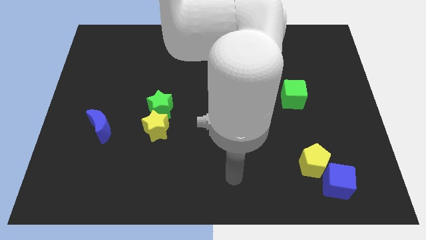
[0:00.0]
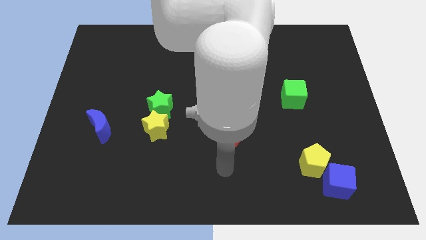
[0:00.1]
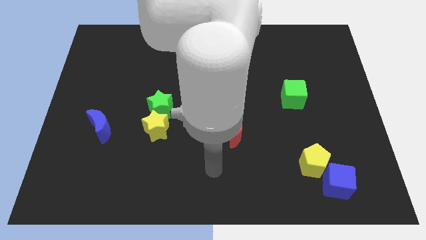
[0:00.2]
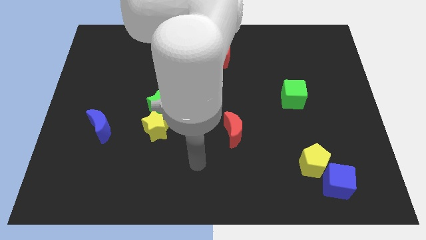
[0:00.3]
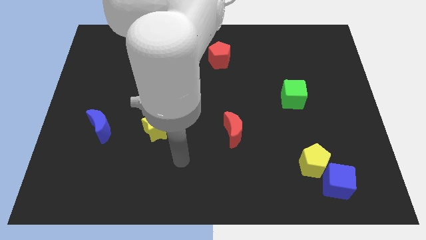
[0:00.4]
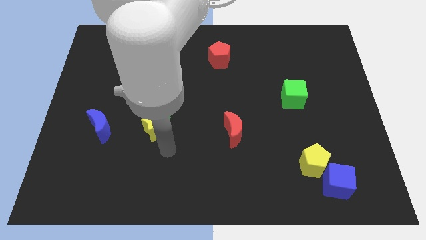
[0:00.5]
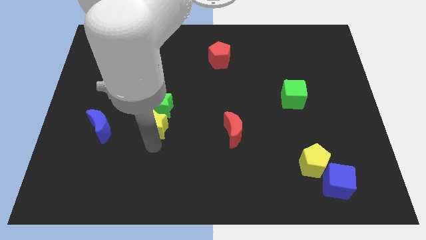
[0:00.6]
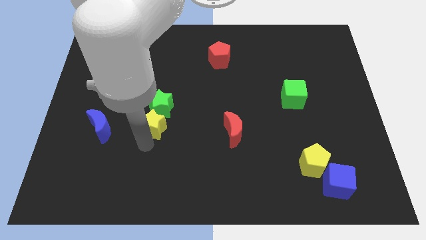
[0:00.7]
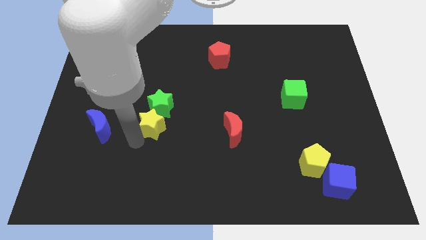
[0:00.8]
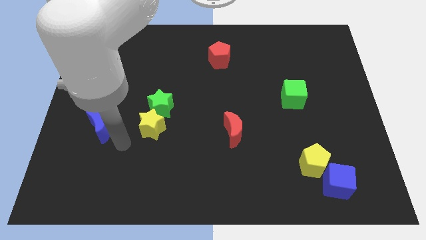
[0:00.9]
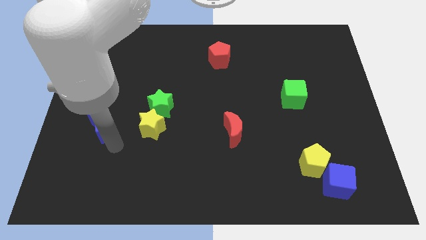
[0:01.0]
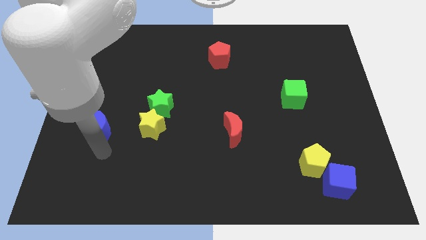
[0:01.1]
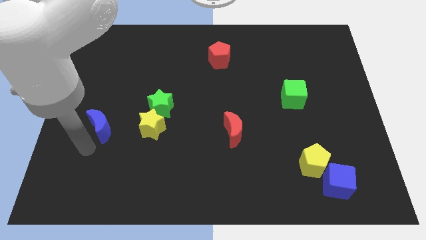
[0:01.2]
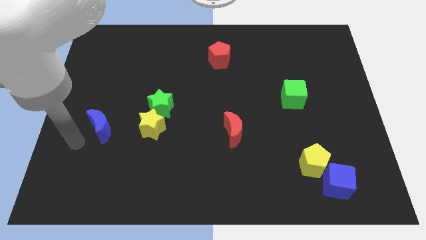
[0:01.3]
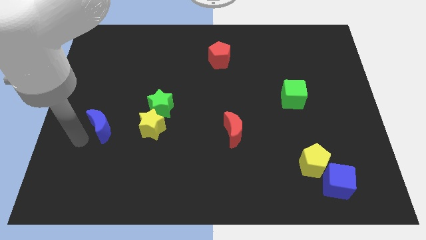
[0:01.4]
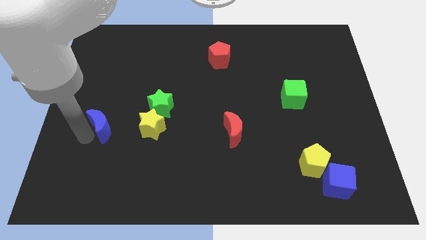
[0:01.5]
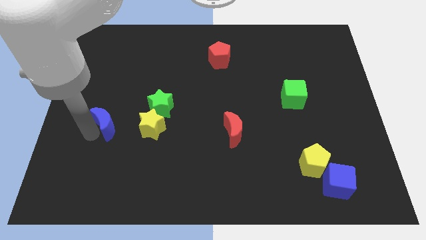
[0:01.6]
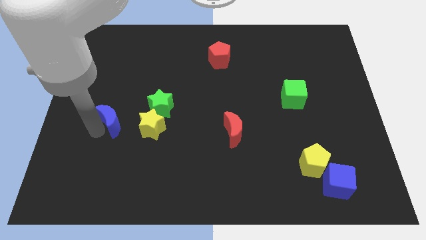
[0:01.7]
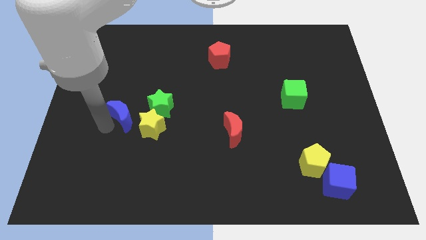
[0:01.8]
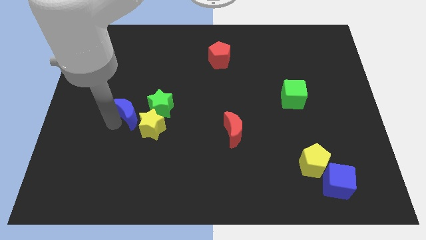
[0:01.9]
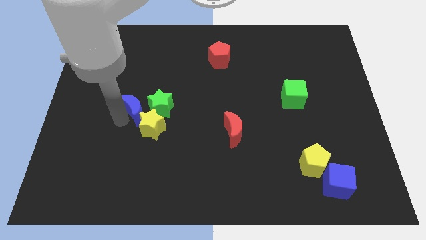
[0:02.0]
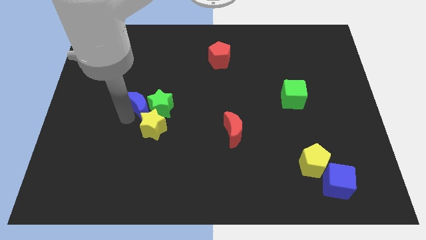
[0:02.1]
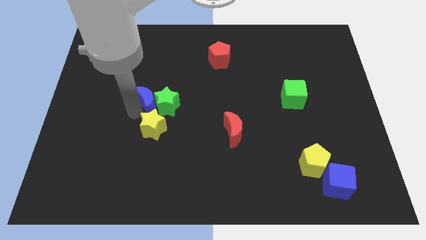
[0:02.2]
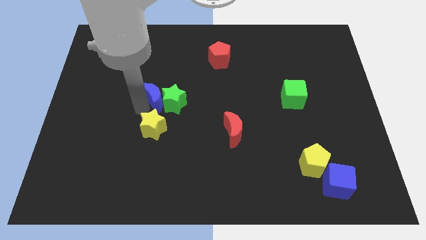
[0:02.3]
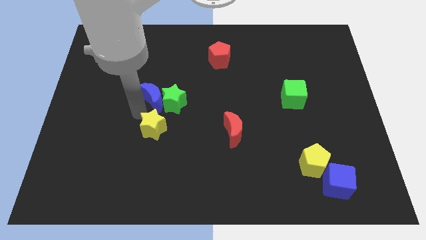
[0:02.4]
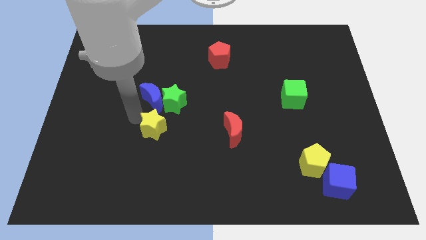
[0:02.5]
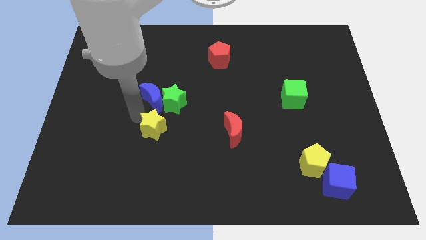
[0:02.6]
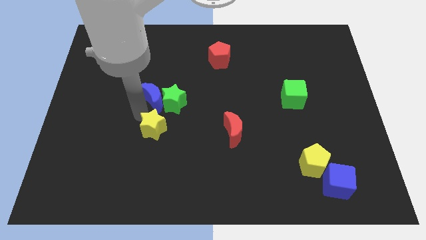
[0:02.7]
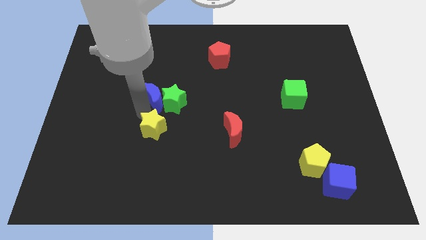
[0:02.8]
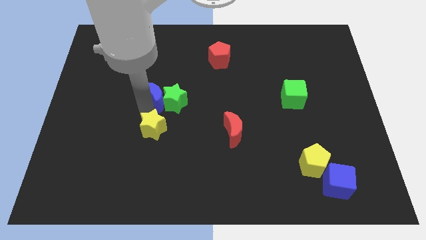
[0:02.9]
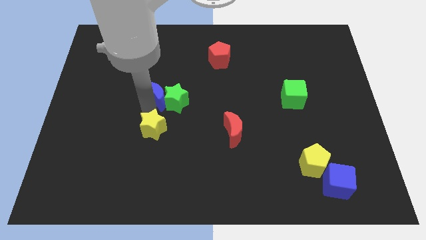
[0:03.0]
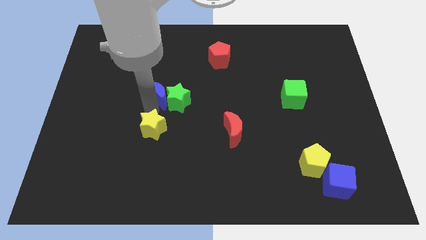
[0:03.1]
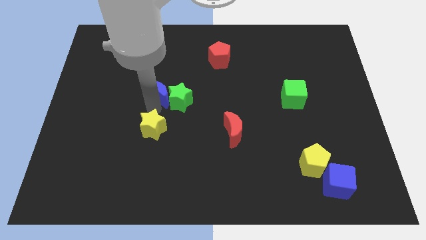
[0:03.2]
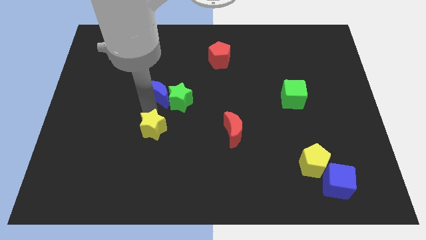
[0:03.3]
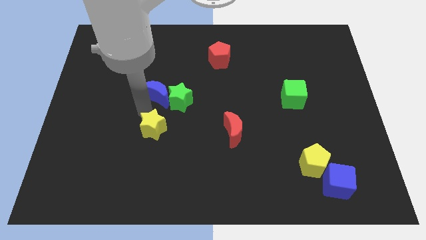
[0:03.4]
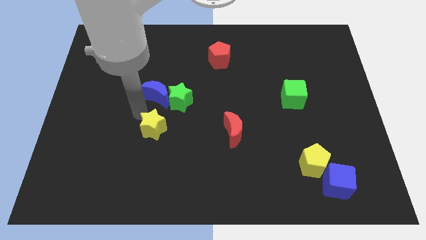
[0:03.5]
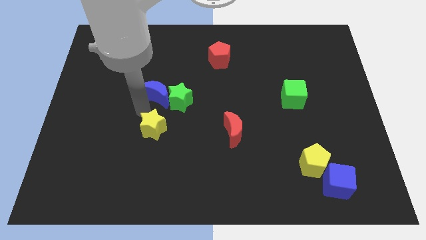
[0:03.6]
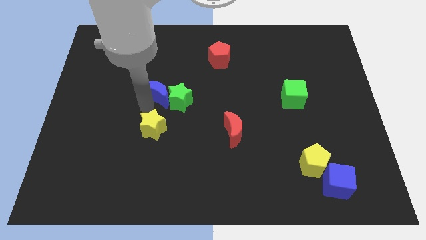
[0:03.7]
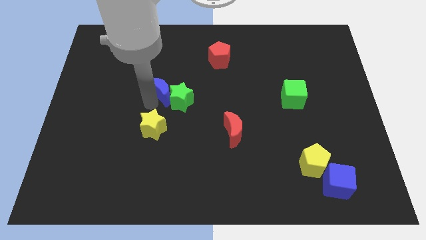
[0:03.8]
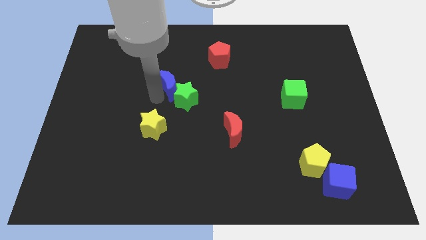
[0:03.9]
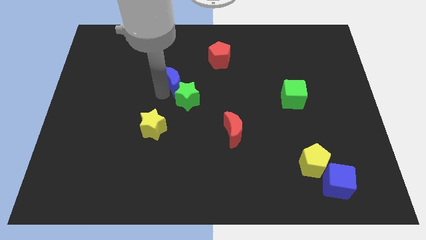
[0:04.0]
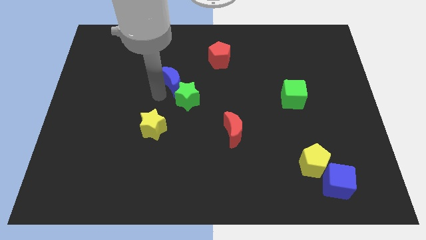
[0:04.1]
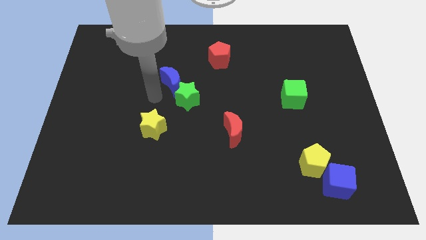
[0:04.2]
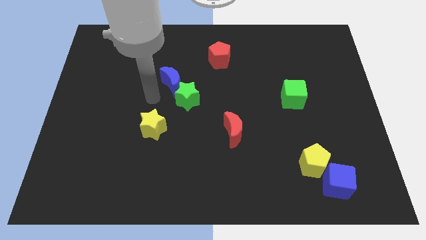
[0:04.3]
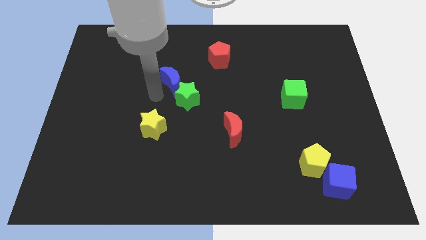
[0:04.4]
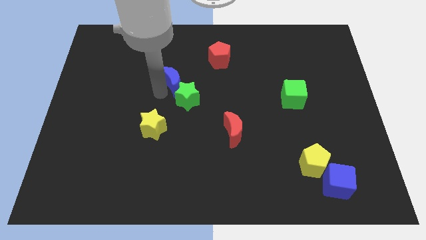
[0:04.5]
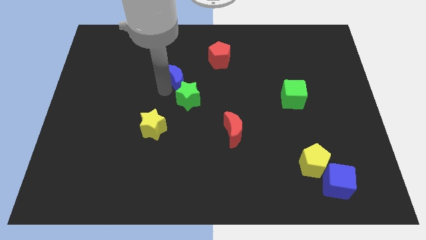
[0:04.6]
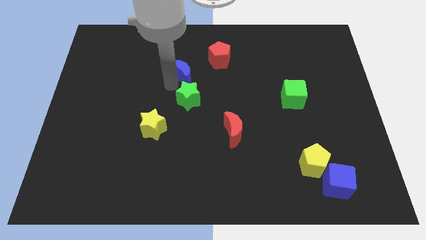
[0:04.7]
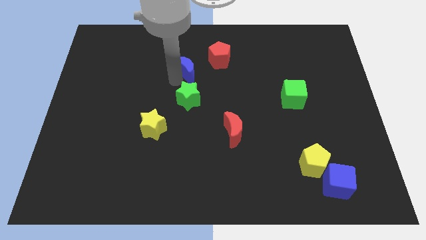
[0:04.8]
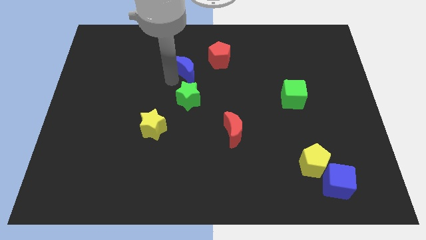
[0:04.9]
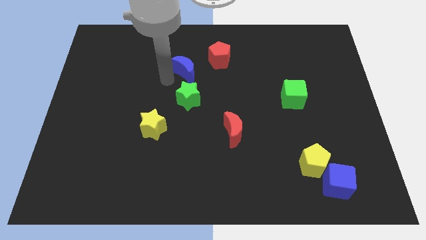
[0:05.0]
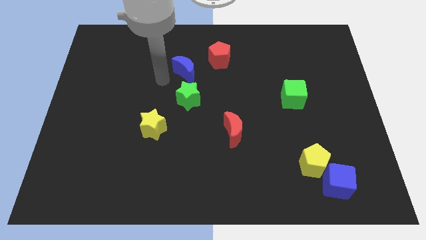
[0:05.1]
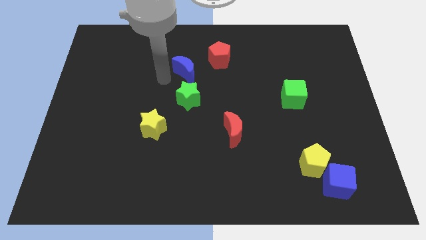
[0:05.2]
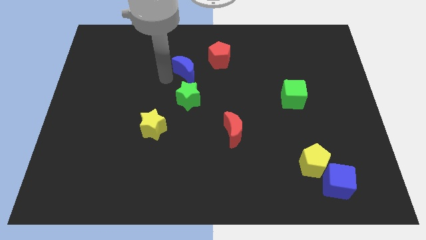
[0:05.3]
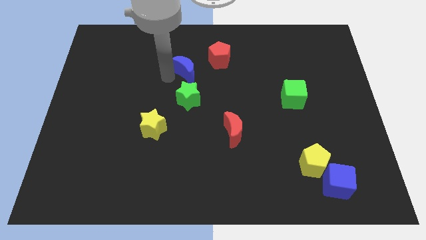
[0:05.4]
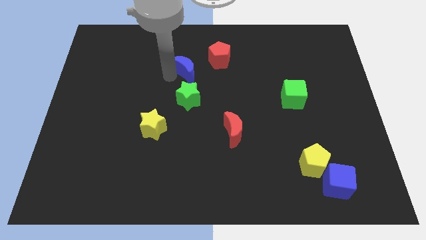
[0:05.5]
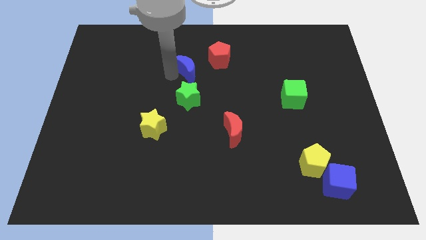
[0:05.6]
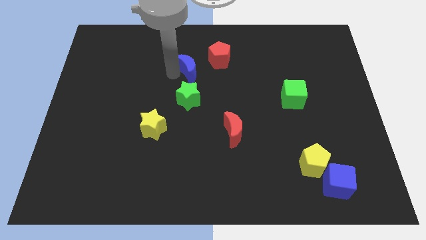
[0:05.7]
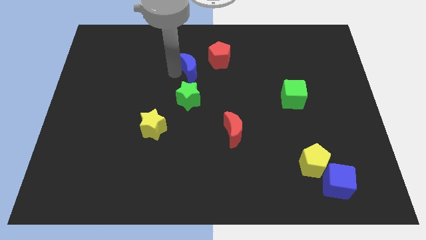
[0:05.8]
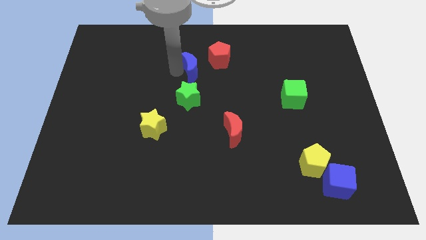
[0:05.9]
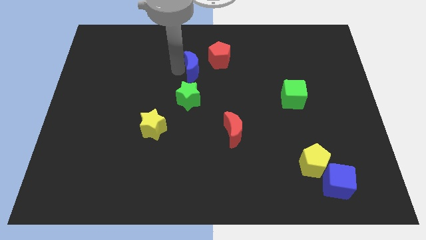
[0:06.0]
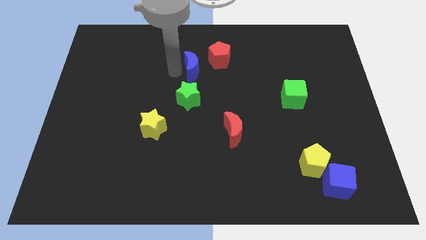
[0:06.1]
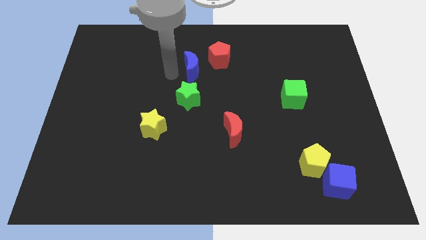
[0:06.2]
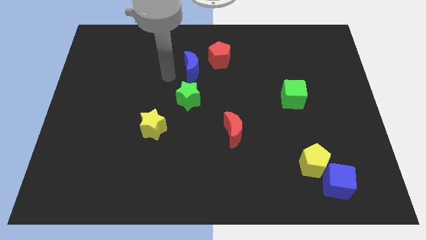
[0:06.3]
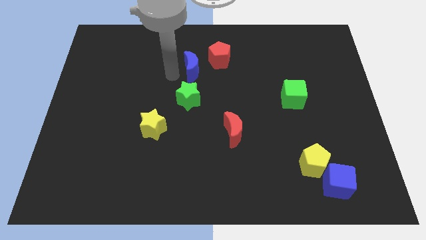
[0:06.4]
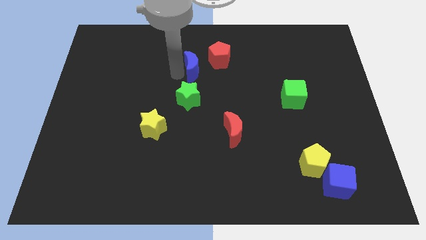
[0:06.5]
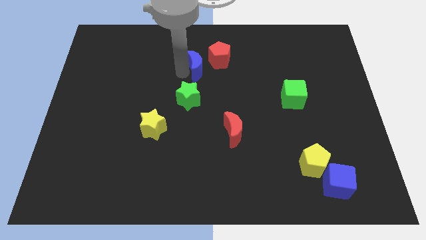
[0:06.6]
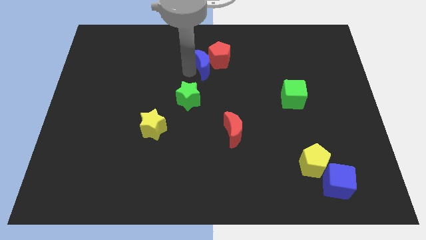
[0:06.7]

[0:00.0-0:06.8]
push the blue moon towards the red pentagon

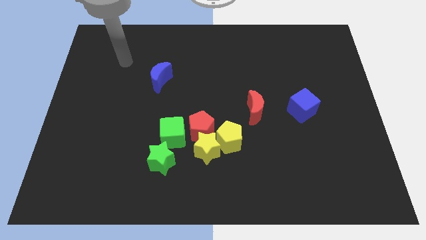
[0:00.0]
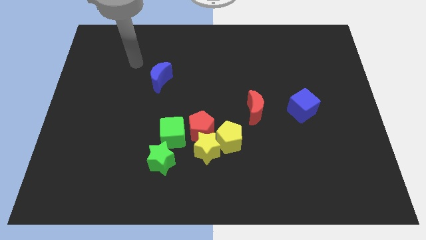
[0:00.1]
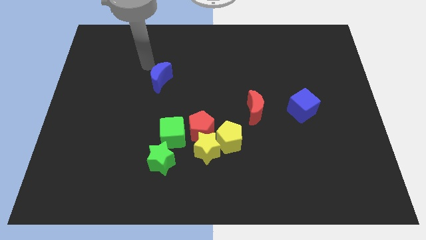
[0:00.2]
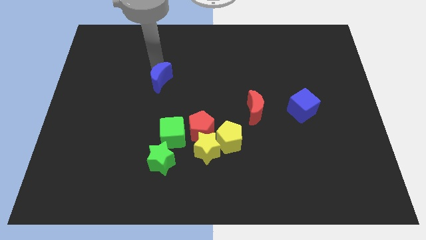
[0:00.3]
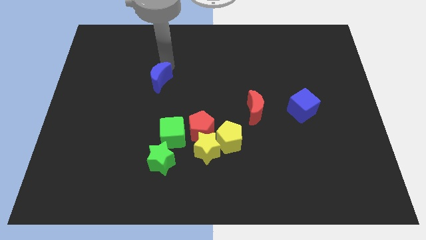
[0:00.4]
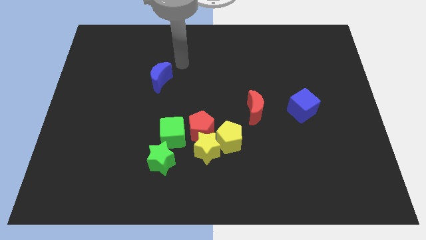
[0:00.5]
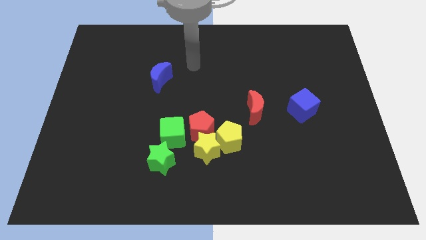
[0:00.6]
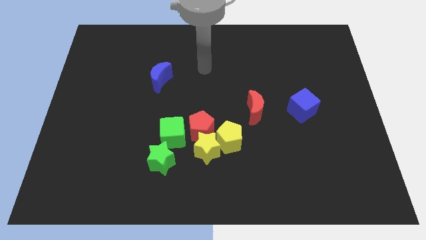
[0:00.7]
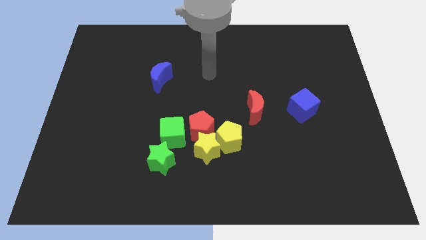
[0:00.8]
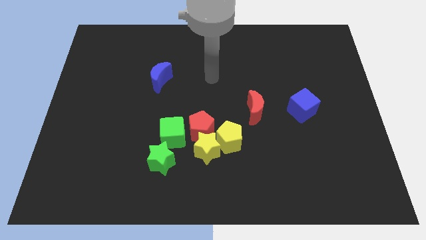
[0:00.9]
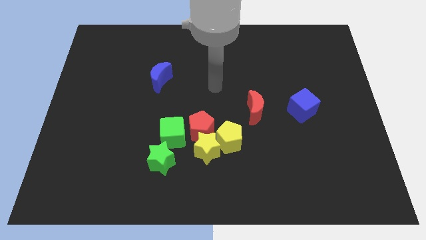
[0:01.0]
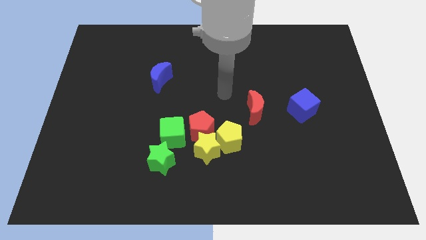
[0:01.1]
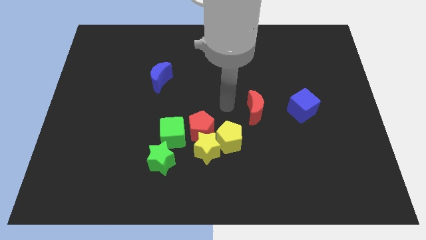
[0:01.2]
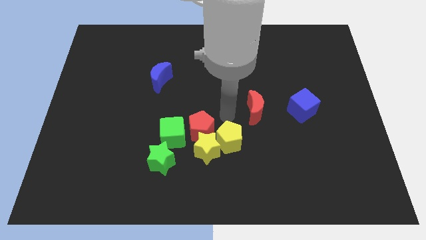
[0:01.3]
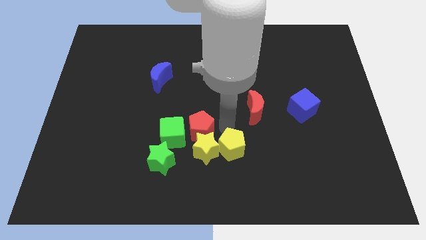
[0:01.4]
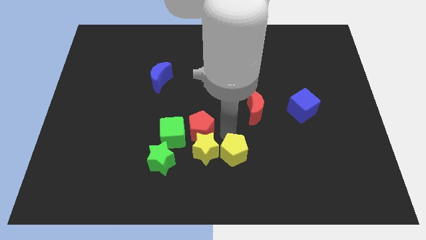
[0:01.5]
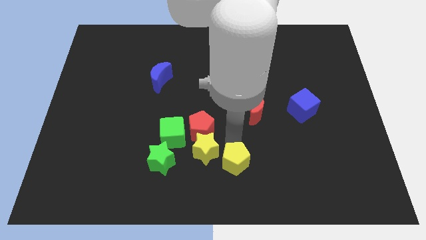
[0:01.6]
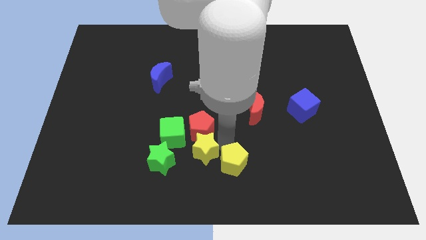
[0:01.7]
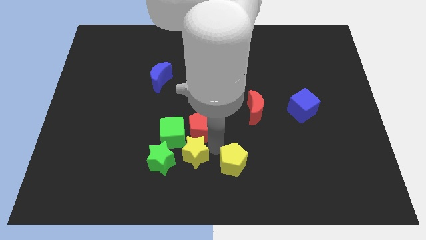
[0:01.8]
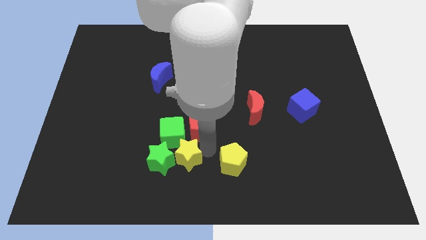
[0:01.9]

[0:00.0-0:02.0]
slide the yellow star close to the green star
